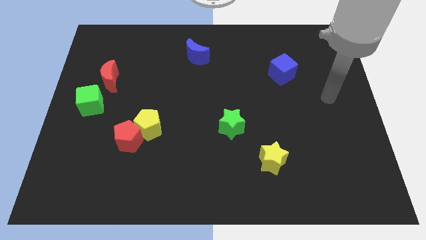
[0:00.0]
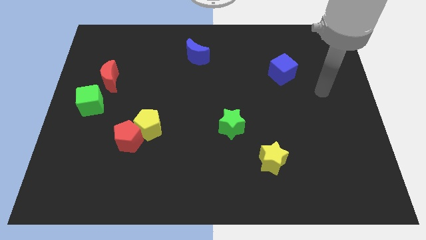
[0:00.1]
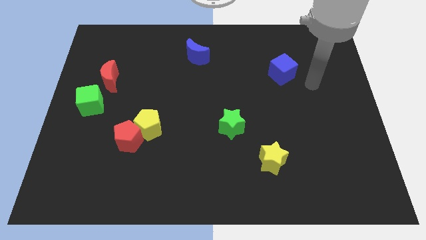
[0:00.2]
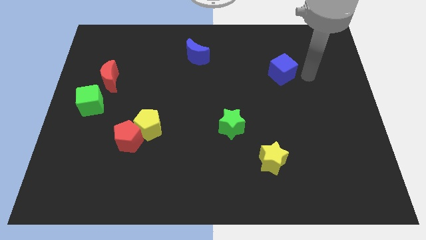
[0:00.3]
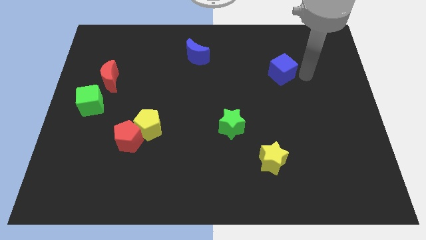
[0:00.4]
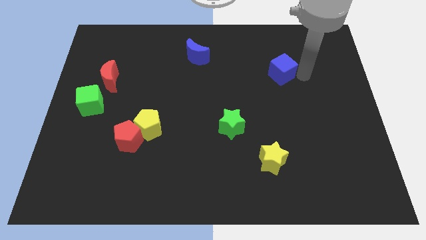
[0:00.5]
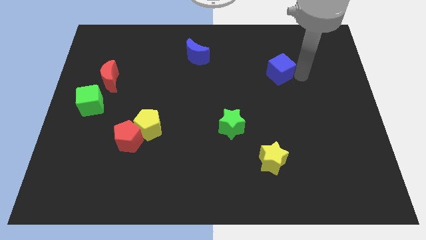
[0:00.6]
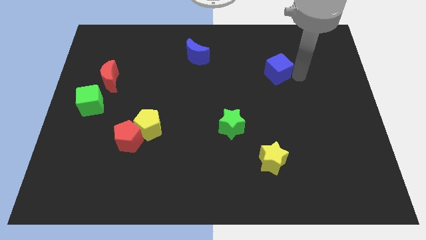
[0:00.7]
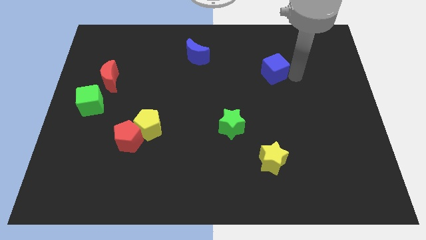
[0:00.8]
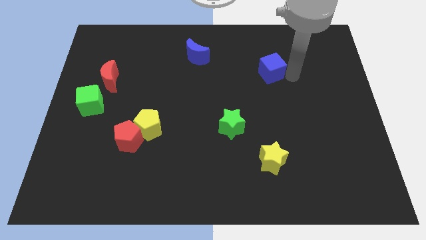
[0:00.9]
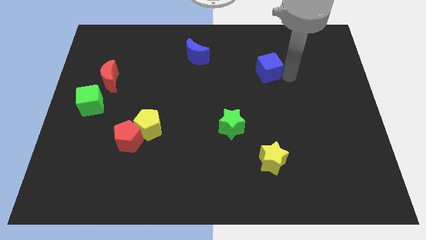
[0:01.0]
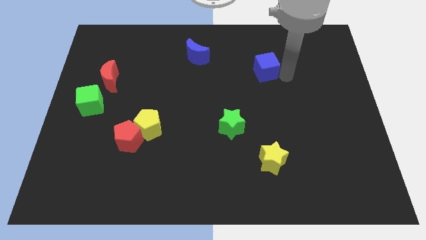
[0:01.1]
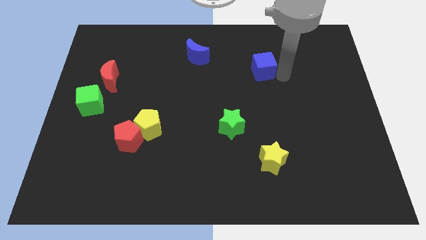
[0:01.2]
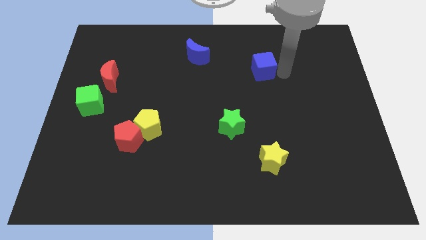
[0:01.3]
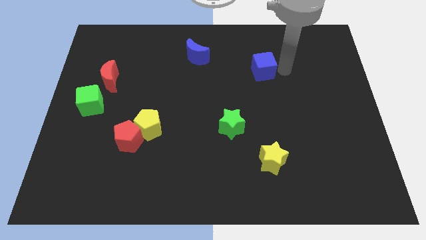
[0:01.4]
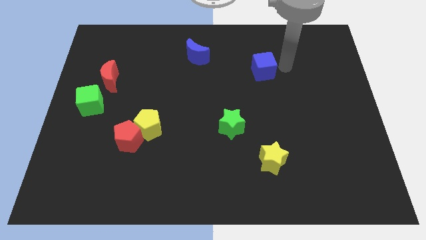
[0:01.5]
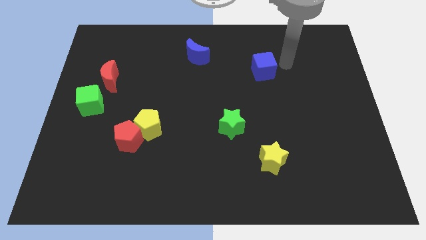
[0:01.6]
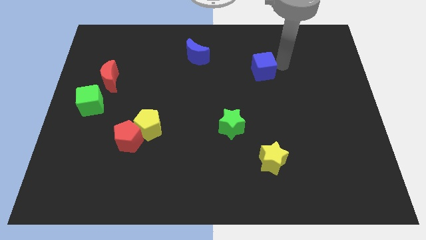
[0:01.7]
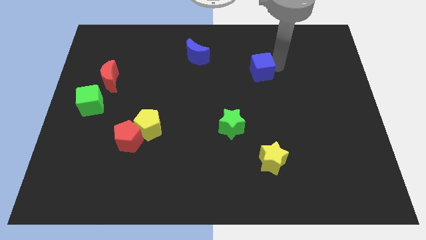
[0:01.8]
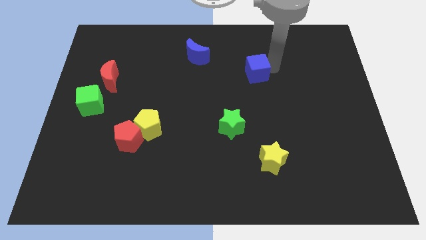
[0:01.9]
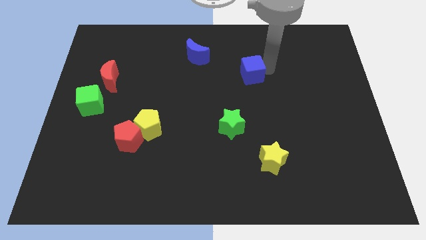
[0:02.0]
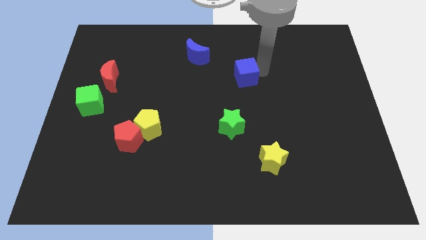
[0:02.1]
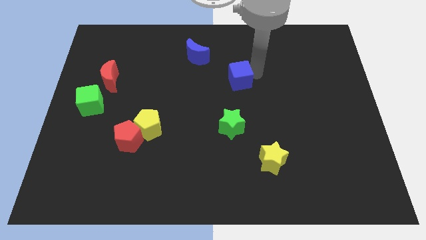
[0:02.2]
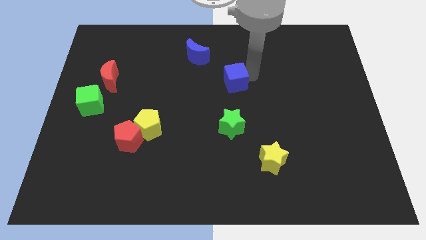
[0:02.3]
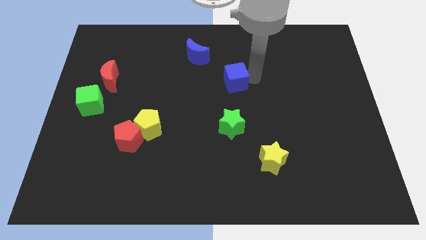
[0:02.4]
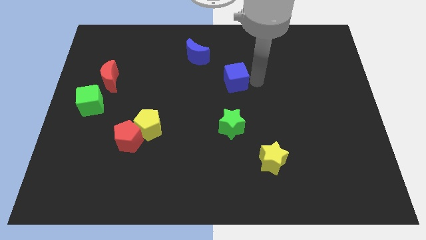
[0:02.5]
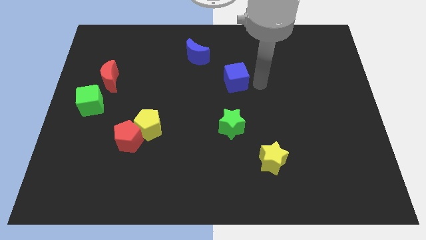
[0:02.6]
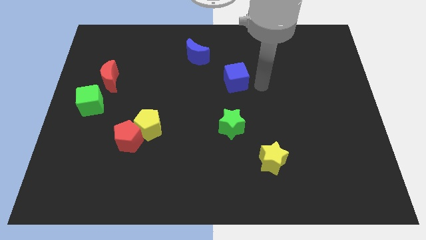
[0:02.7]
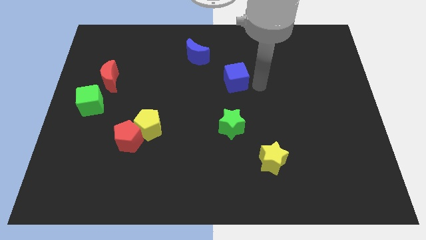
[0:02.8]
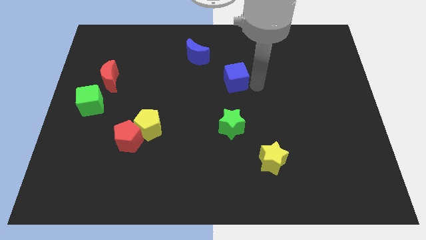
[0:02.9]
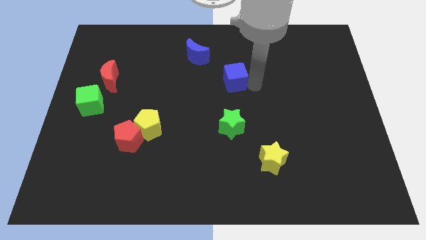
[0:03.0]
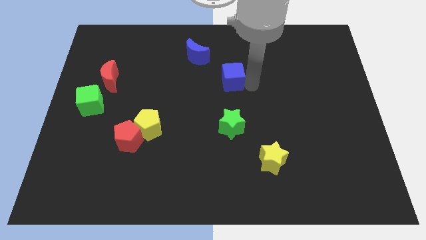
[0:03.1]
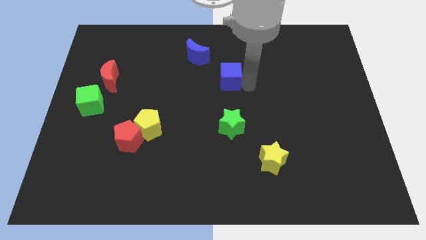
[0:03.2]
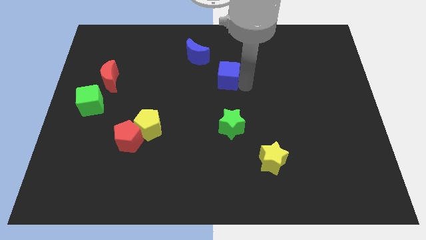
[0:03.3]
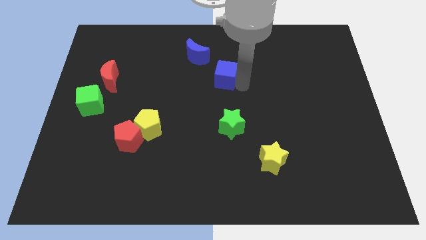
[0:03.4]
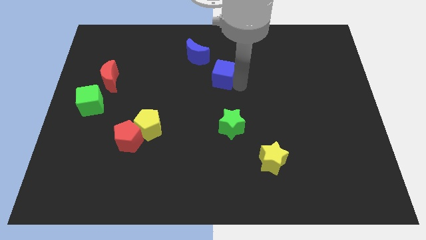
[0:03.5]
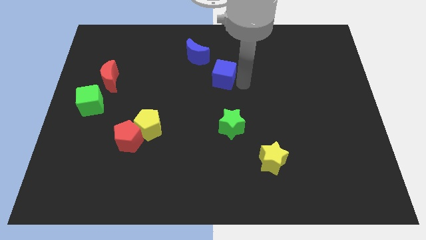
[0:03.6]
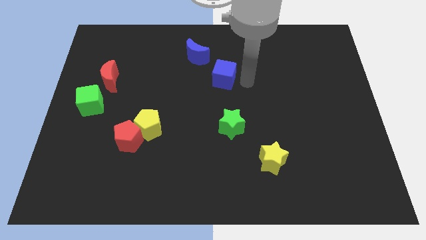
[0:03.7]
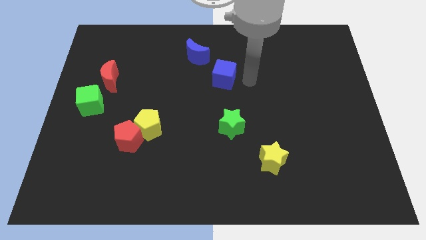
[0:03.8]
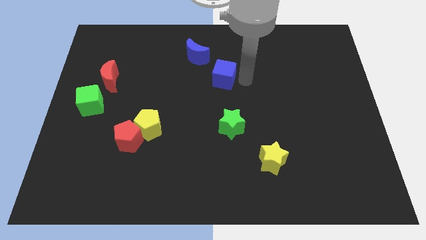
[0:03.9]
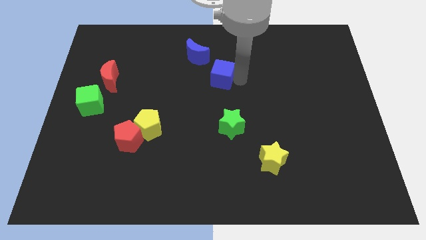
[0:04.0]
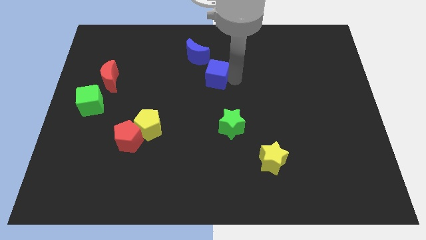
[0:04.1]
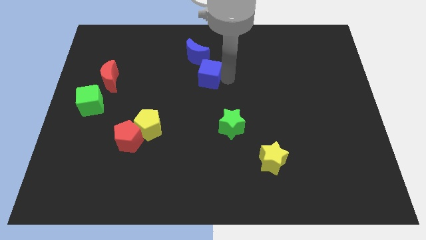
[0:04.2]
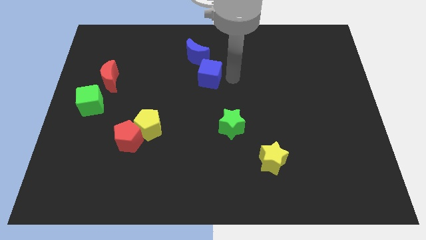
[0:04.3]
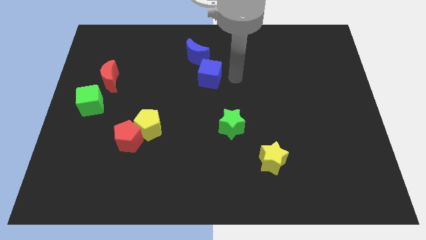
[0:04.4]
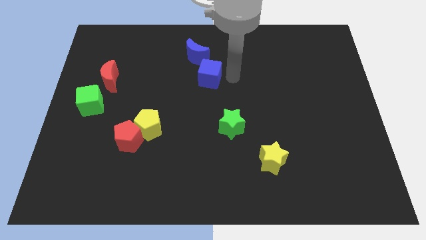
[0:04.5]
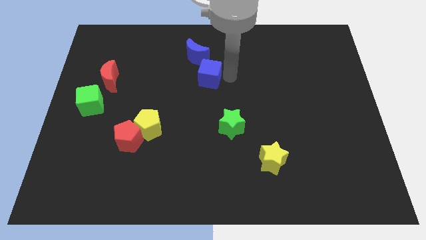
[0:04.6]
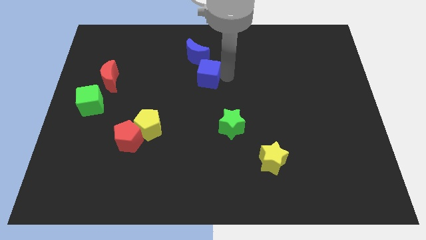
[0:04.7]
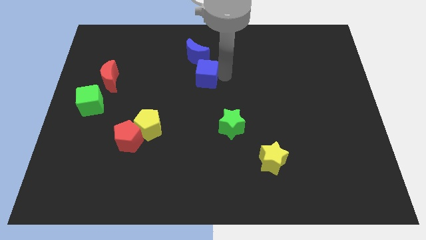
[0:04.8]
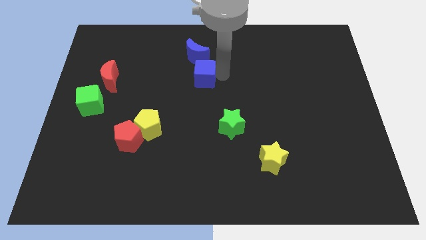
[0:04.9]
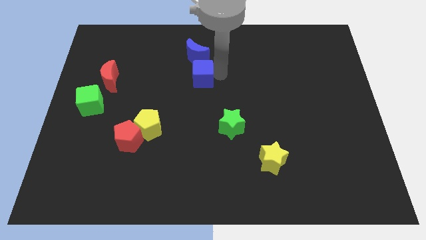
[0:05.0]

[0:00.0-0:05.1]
move the blue cube left

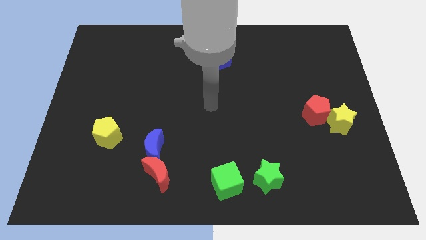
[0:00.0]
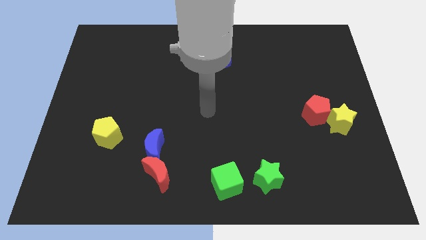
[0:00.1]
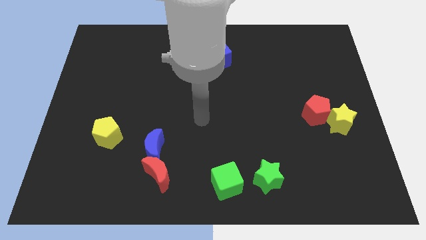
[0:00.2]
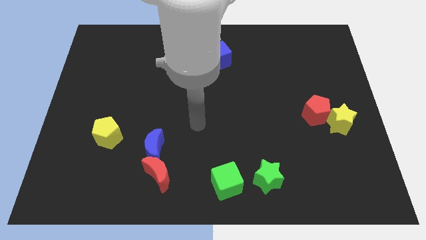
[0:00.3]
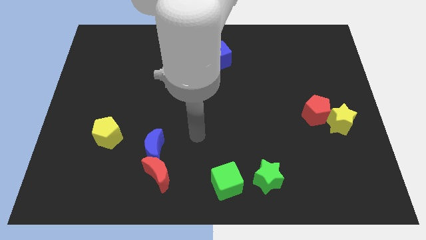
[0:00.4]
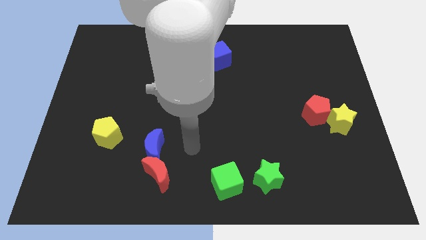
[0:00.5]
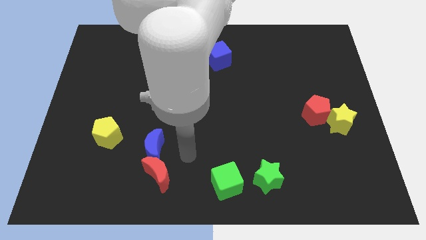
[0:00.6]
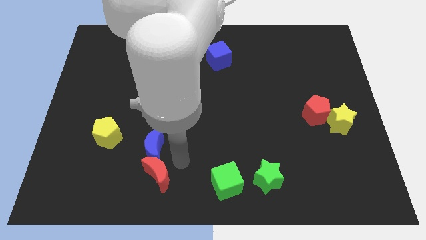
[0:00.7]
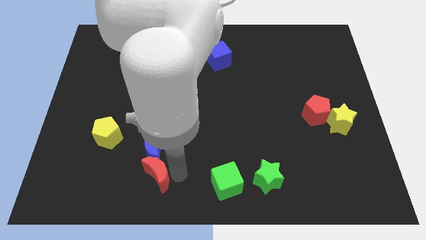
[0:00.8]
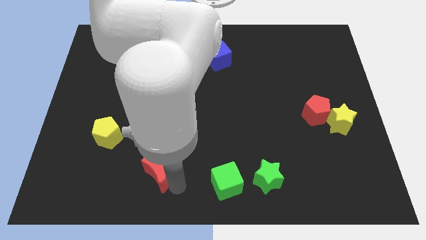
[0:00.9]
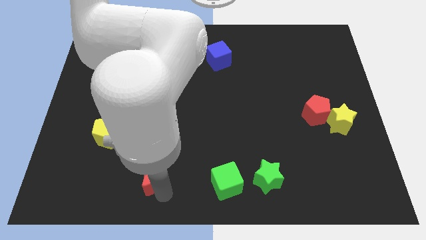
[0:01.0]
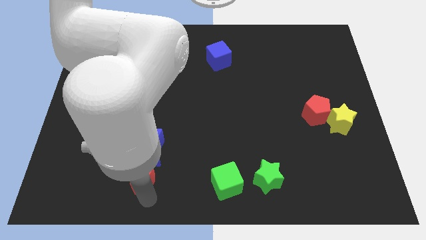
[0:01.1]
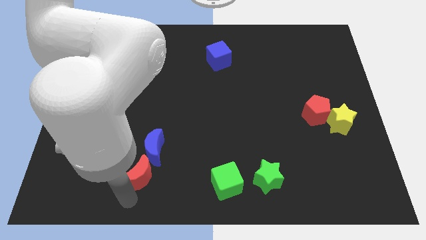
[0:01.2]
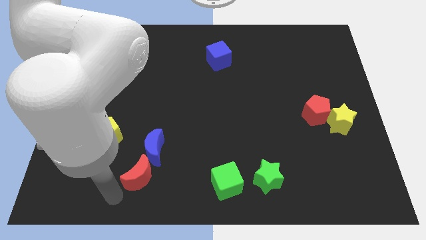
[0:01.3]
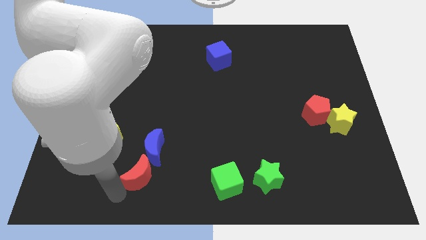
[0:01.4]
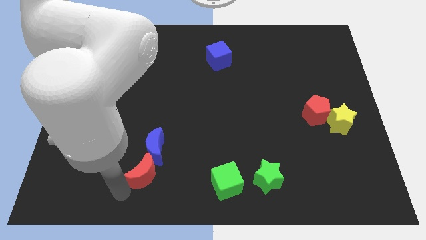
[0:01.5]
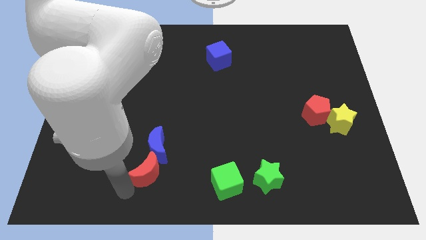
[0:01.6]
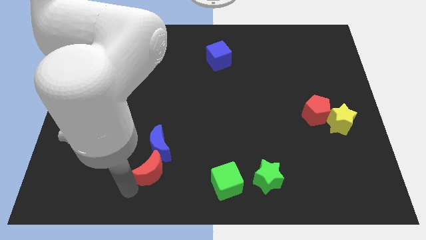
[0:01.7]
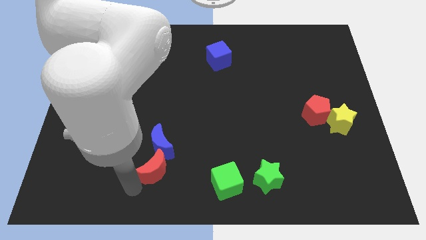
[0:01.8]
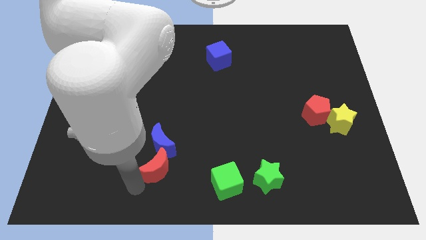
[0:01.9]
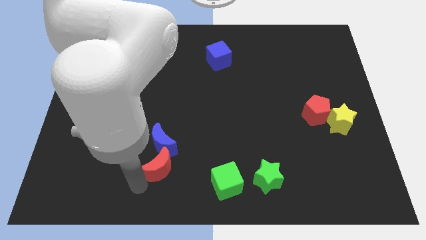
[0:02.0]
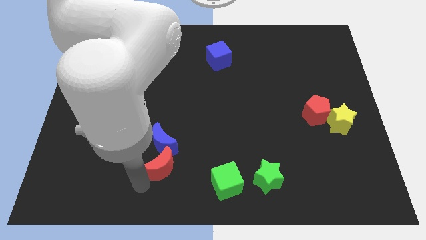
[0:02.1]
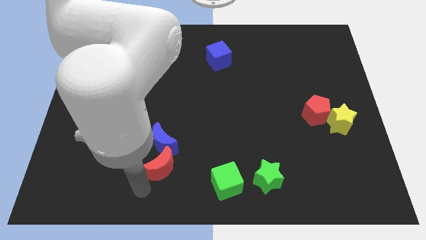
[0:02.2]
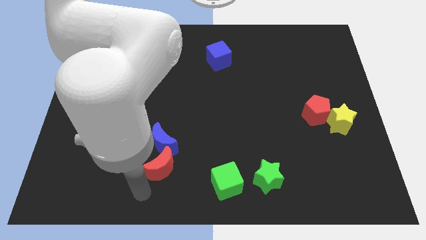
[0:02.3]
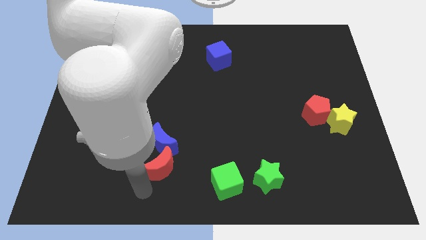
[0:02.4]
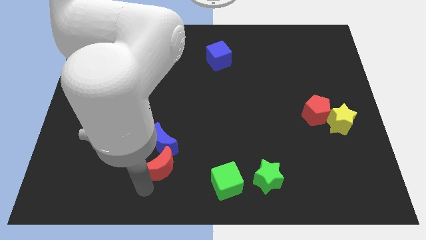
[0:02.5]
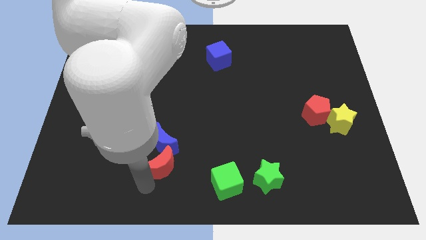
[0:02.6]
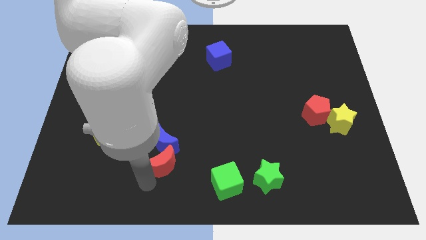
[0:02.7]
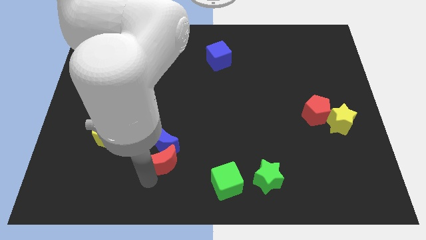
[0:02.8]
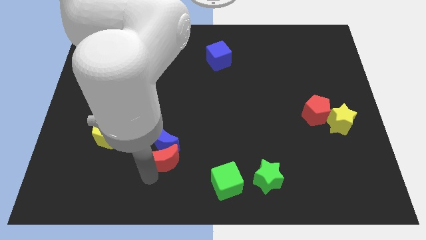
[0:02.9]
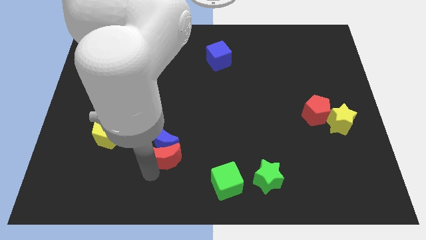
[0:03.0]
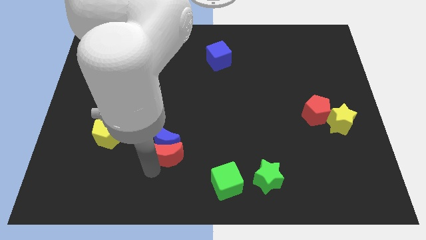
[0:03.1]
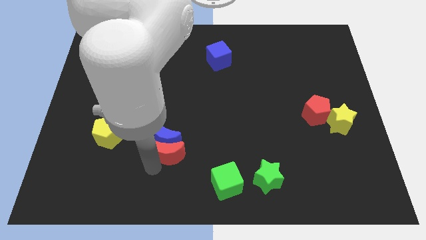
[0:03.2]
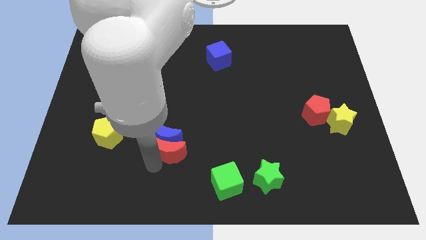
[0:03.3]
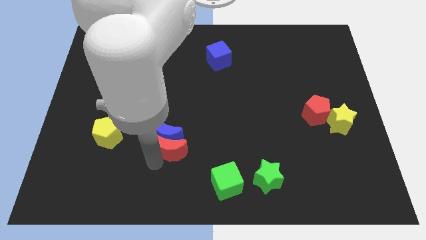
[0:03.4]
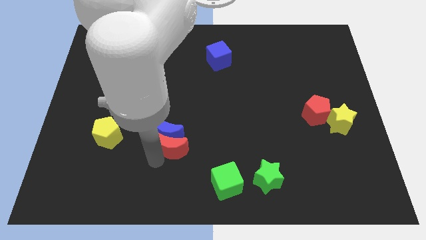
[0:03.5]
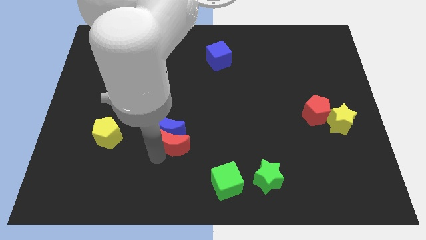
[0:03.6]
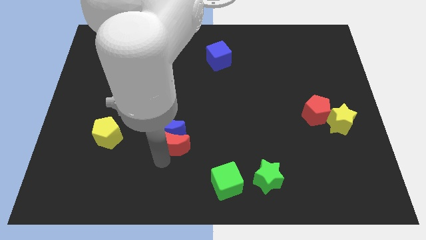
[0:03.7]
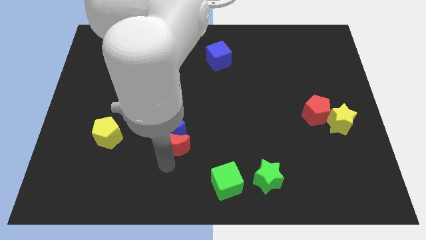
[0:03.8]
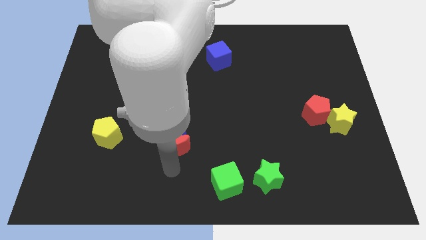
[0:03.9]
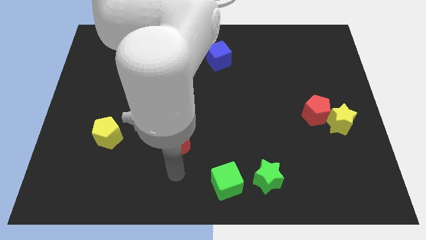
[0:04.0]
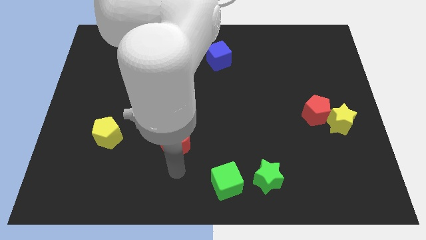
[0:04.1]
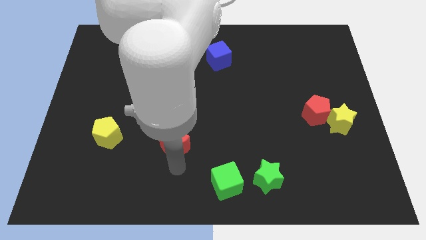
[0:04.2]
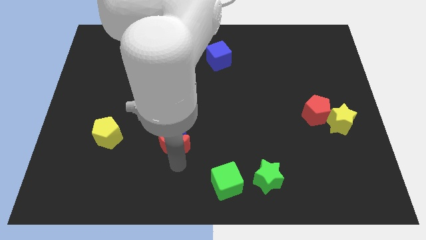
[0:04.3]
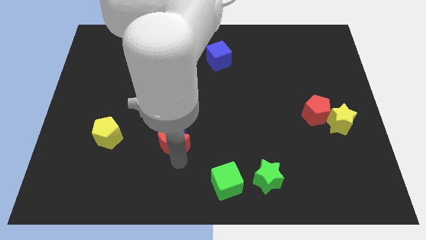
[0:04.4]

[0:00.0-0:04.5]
slightly move the red moon upwards
